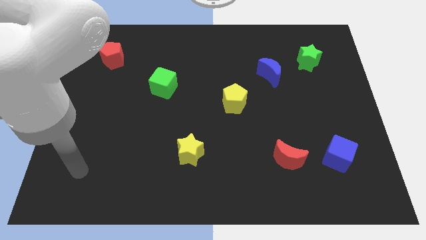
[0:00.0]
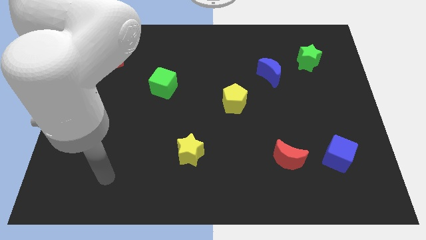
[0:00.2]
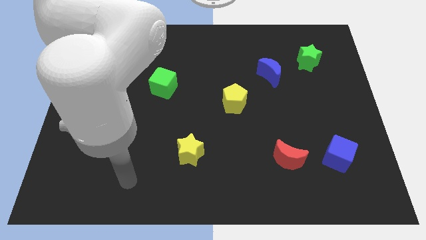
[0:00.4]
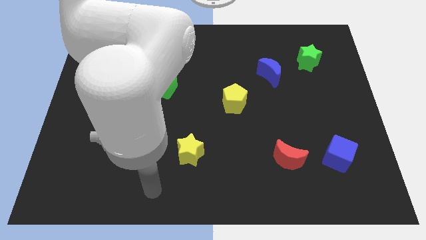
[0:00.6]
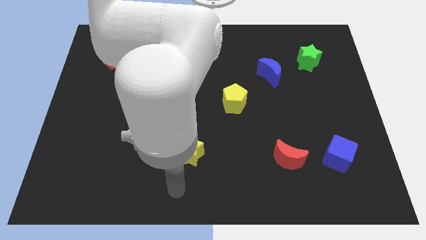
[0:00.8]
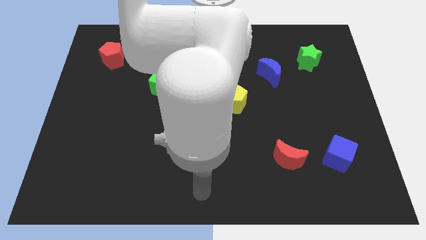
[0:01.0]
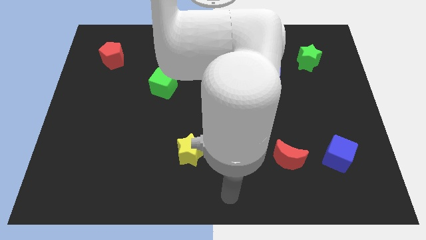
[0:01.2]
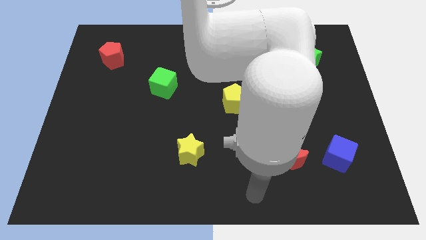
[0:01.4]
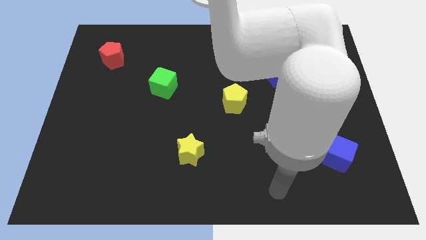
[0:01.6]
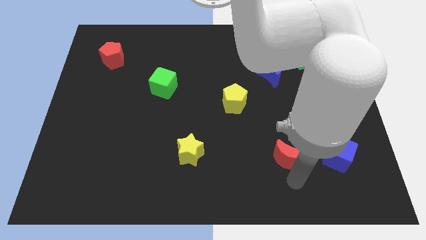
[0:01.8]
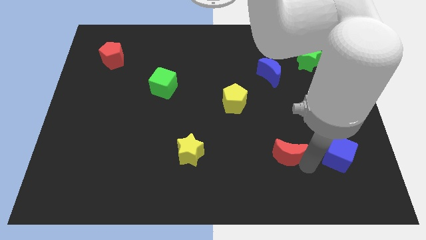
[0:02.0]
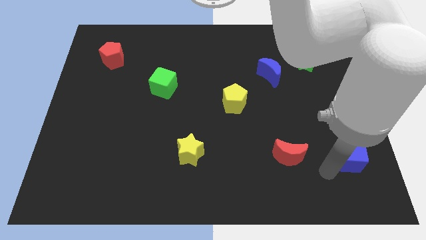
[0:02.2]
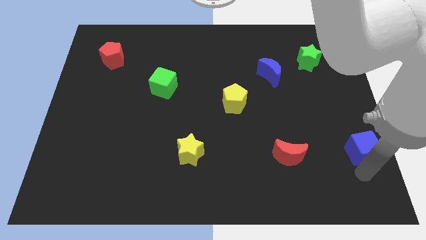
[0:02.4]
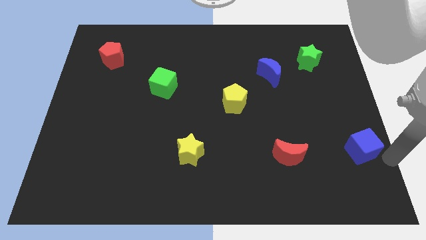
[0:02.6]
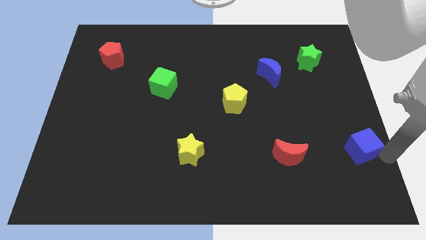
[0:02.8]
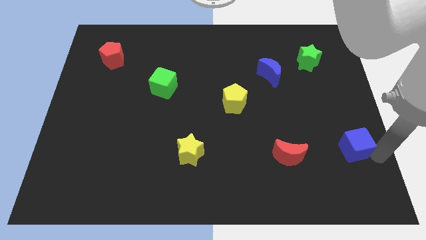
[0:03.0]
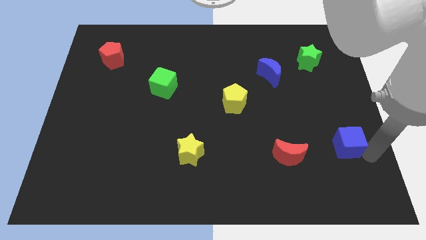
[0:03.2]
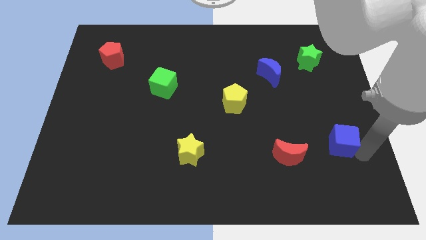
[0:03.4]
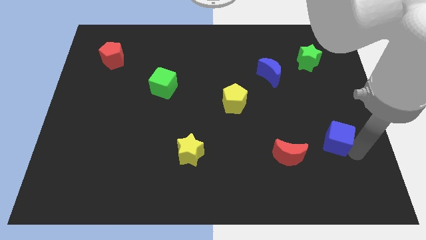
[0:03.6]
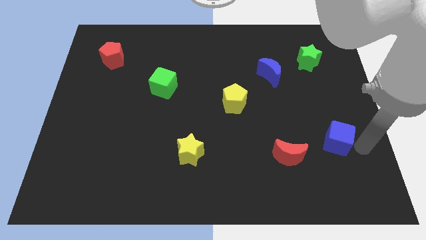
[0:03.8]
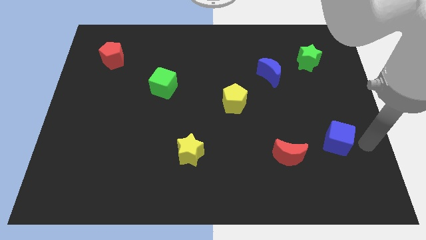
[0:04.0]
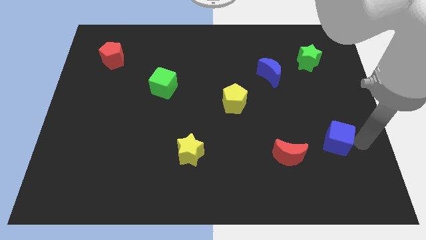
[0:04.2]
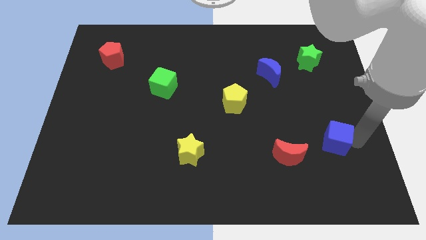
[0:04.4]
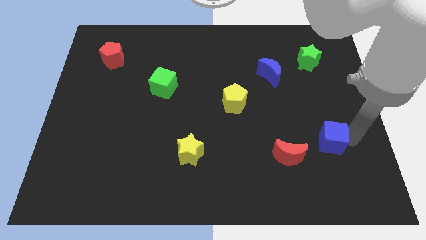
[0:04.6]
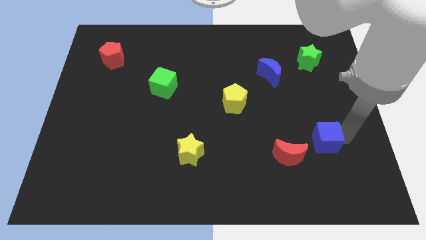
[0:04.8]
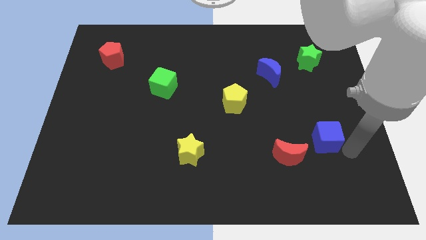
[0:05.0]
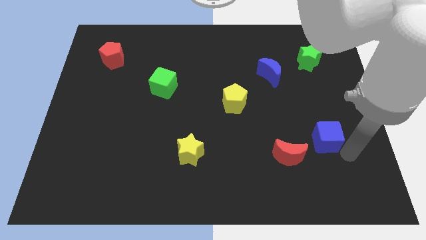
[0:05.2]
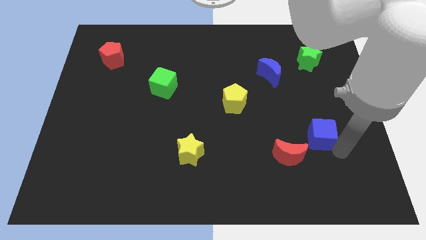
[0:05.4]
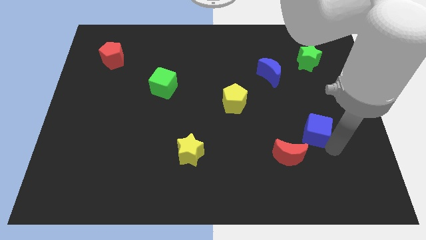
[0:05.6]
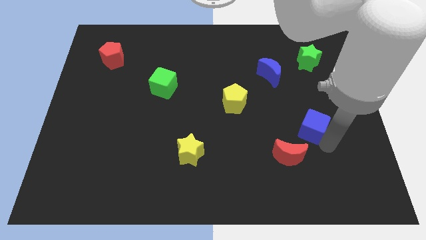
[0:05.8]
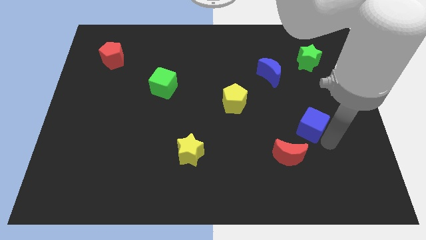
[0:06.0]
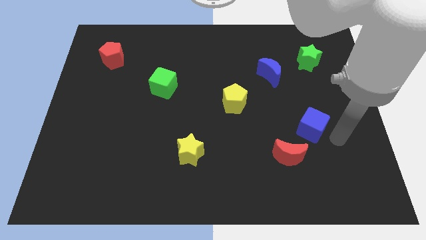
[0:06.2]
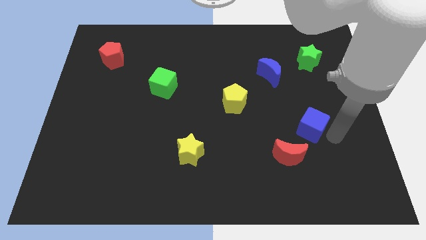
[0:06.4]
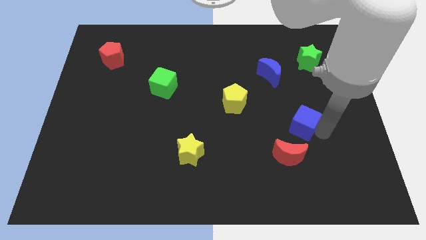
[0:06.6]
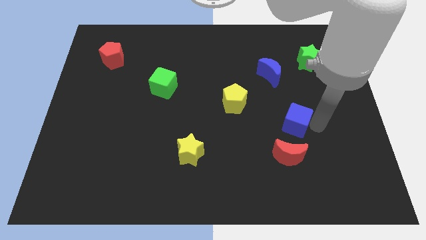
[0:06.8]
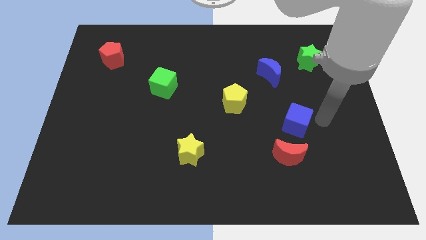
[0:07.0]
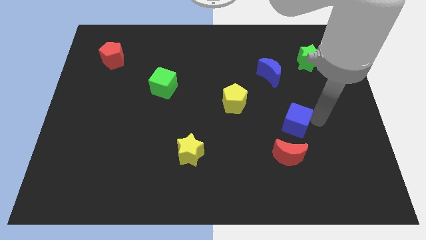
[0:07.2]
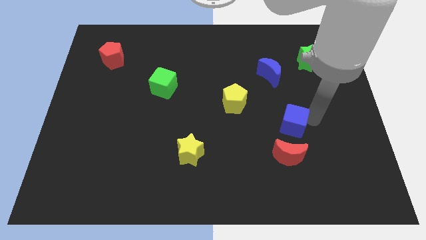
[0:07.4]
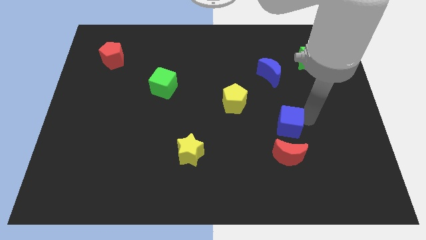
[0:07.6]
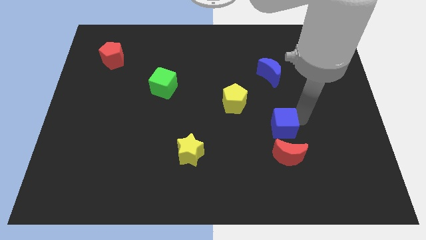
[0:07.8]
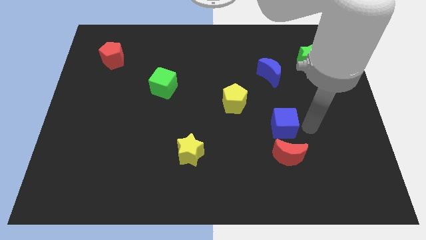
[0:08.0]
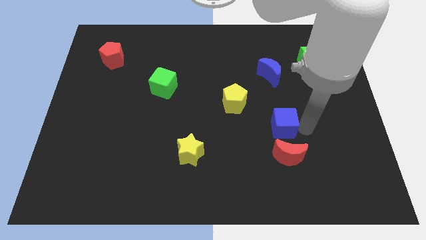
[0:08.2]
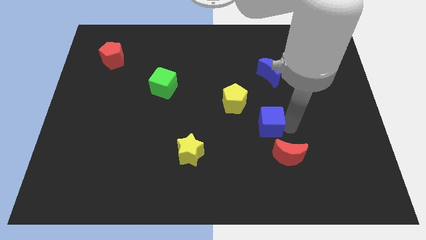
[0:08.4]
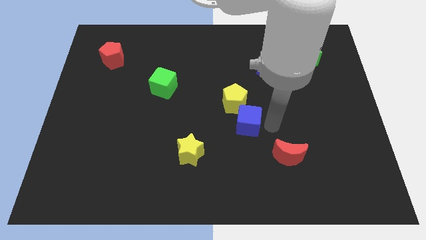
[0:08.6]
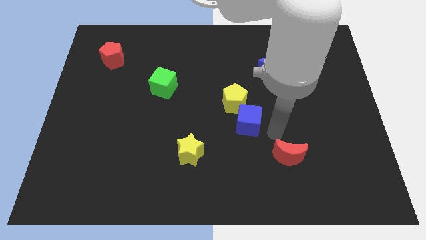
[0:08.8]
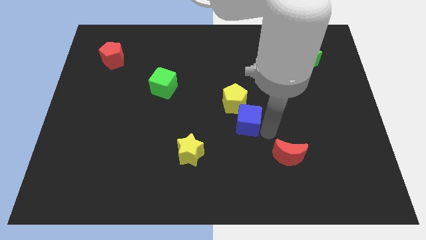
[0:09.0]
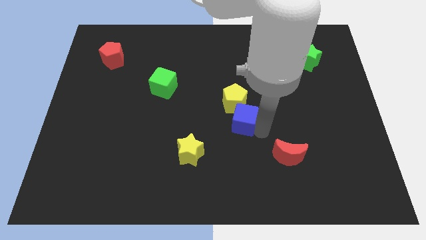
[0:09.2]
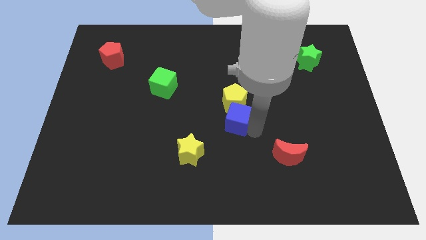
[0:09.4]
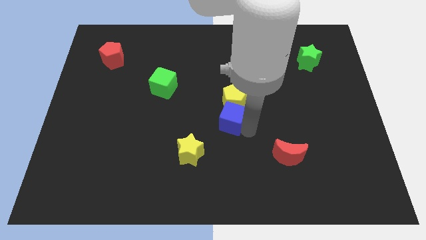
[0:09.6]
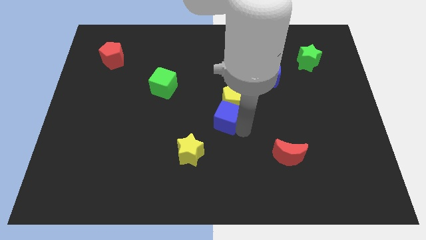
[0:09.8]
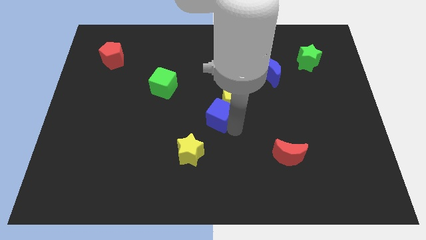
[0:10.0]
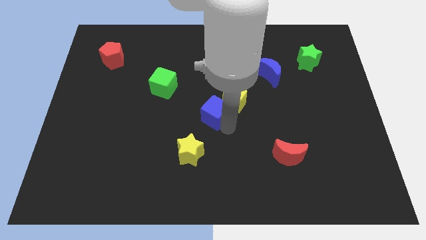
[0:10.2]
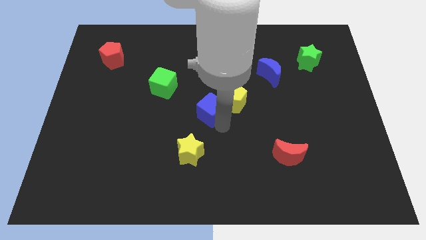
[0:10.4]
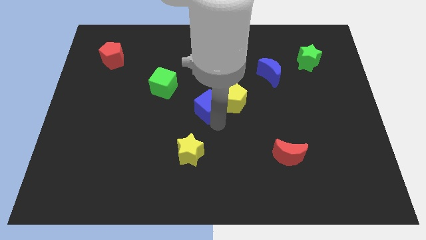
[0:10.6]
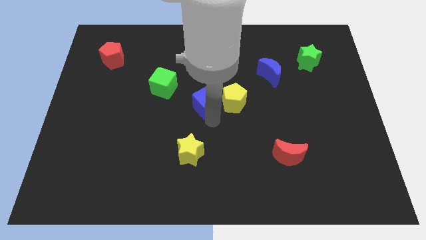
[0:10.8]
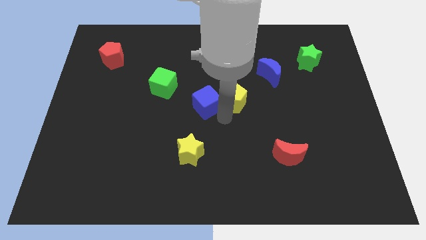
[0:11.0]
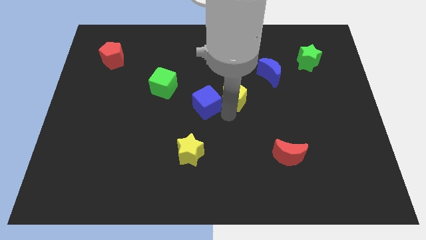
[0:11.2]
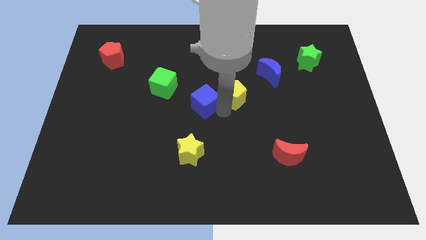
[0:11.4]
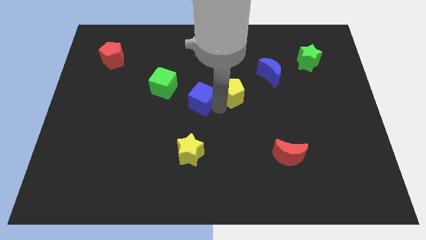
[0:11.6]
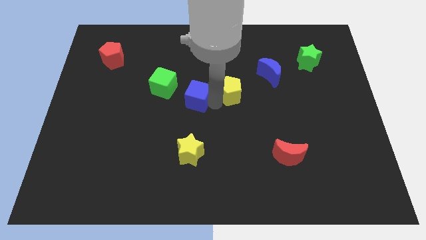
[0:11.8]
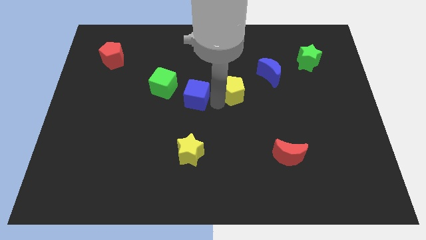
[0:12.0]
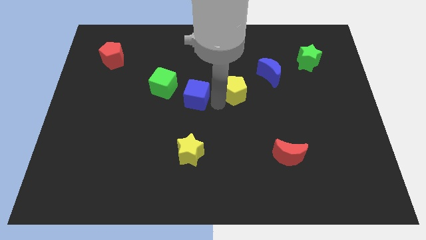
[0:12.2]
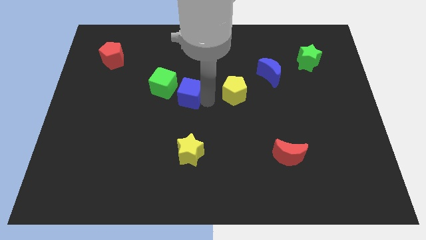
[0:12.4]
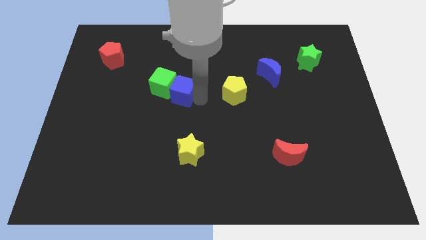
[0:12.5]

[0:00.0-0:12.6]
put the blue cube close to the green cube

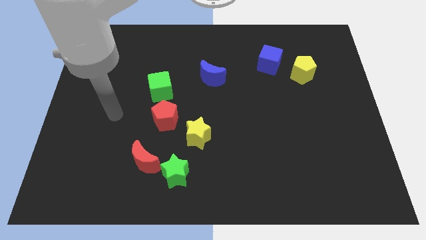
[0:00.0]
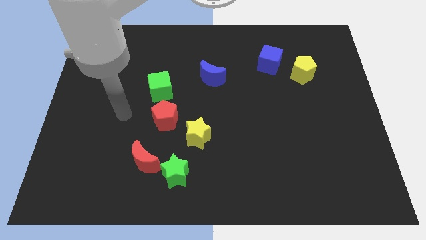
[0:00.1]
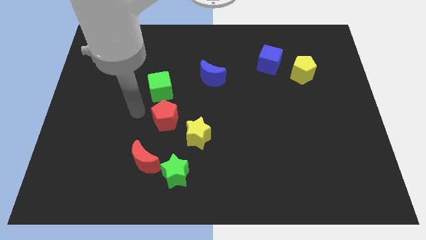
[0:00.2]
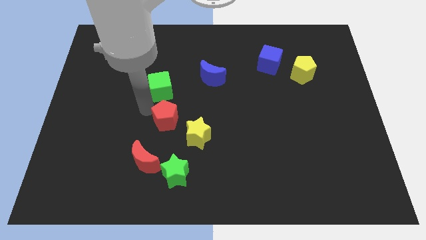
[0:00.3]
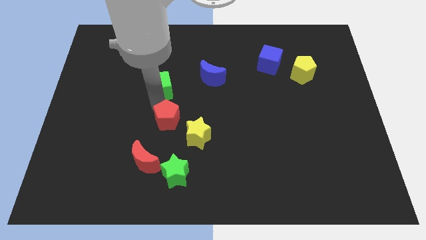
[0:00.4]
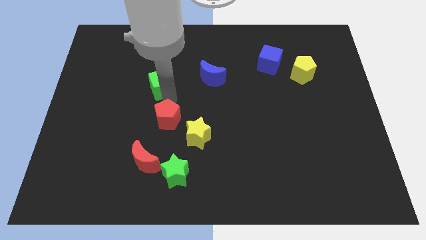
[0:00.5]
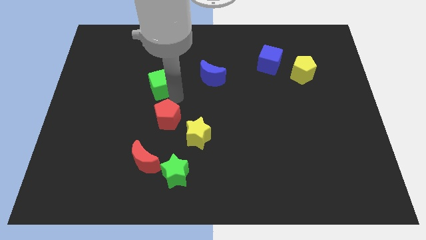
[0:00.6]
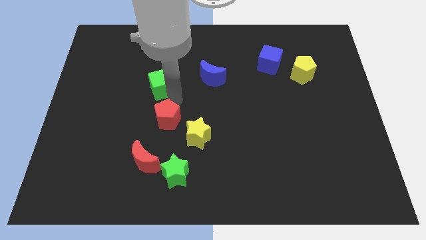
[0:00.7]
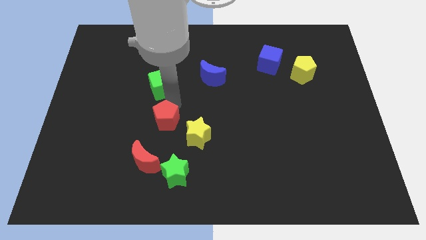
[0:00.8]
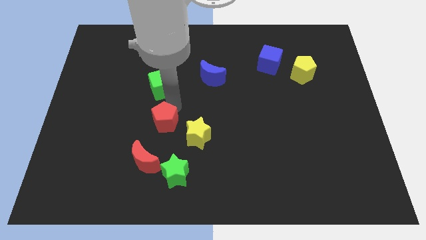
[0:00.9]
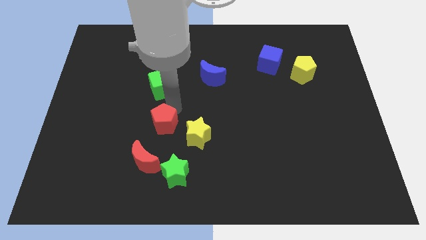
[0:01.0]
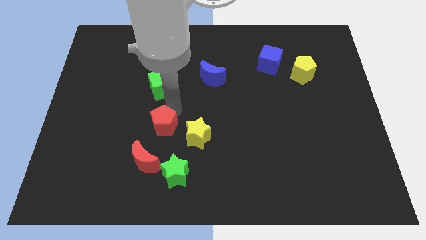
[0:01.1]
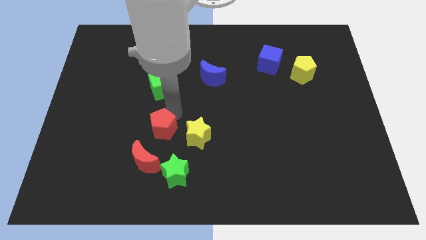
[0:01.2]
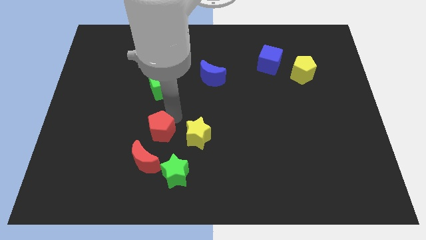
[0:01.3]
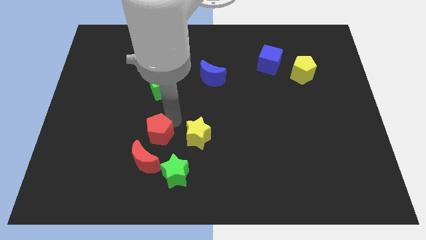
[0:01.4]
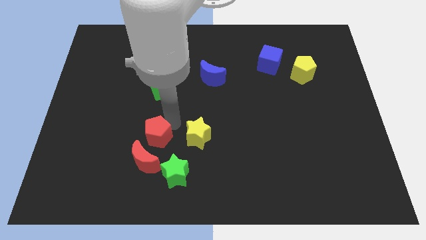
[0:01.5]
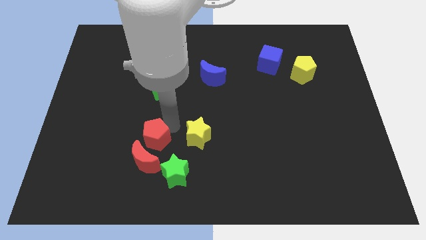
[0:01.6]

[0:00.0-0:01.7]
push the red pentagon towards the red moon
